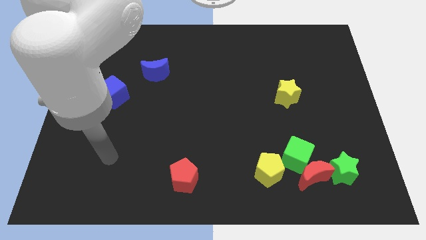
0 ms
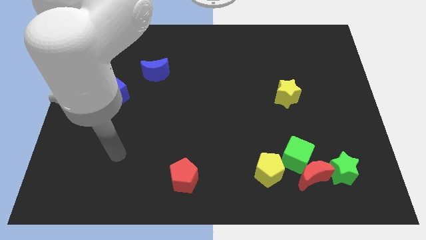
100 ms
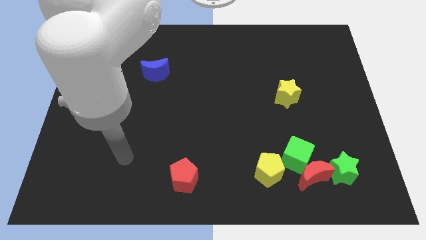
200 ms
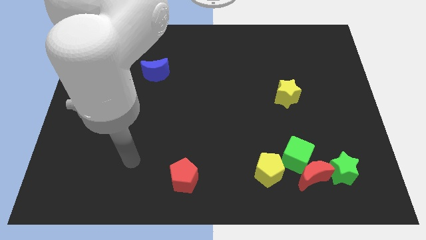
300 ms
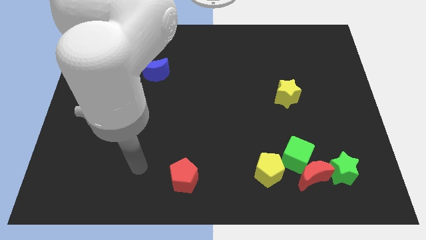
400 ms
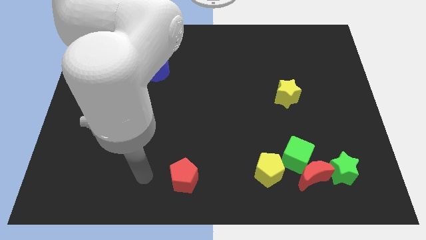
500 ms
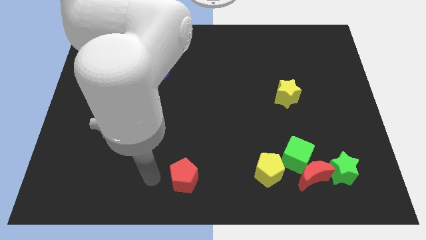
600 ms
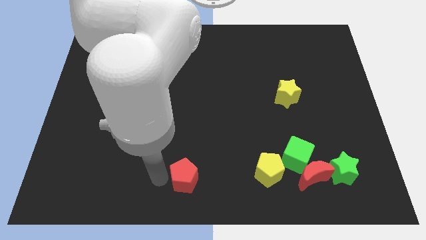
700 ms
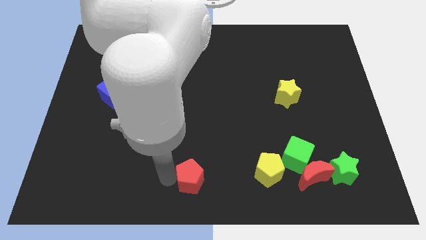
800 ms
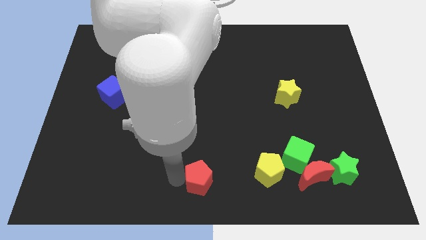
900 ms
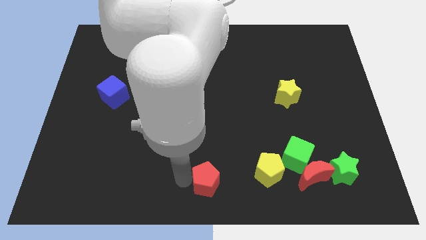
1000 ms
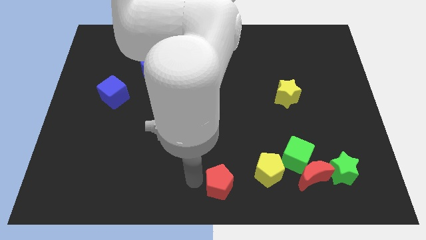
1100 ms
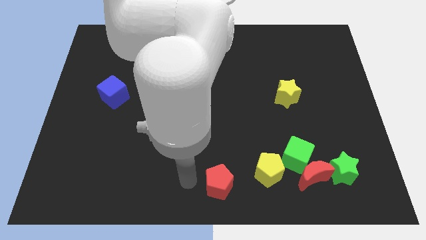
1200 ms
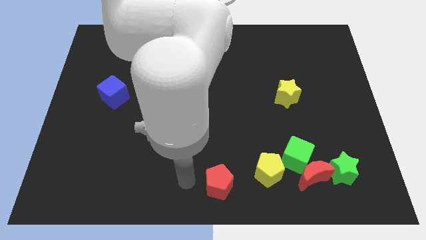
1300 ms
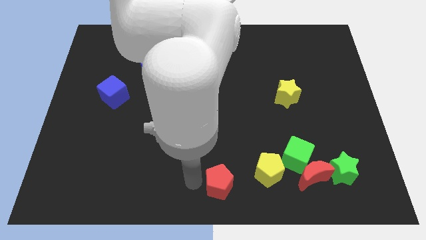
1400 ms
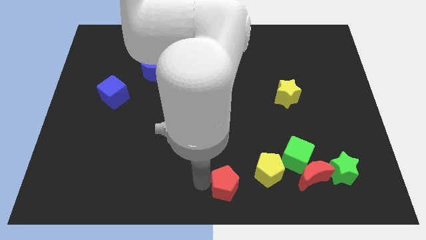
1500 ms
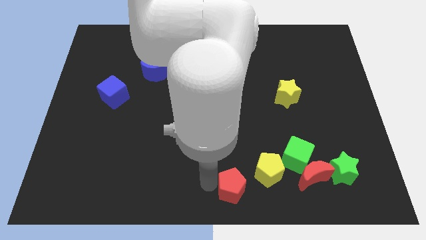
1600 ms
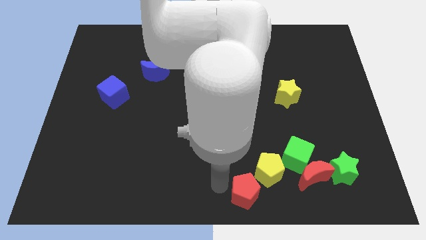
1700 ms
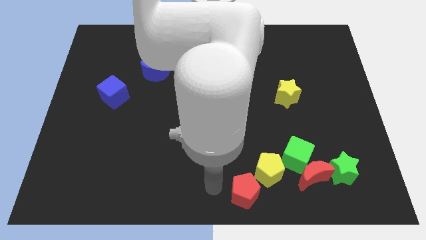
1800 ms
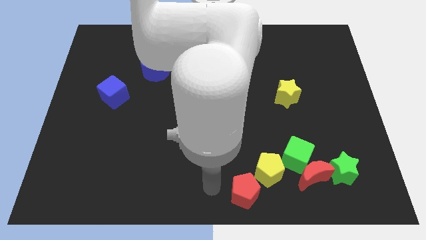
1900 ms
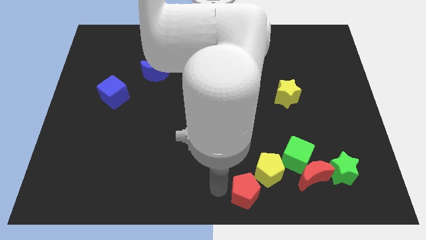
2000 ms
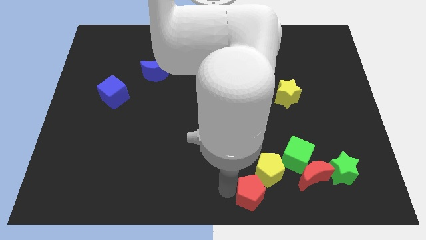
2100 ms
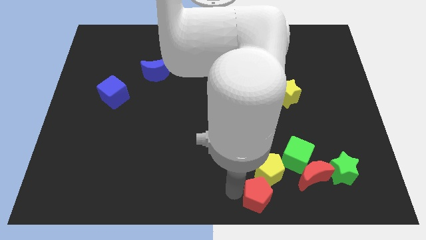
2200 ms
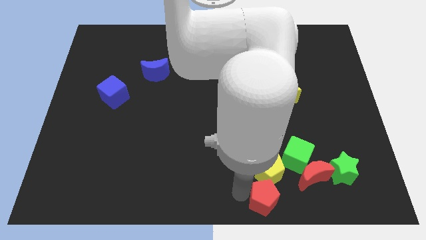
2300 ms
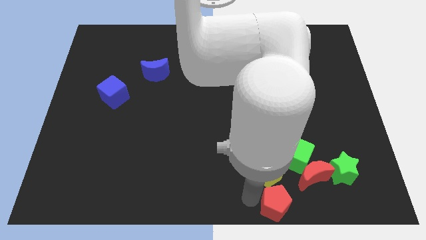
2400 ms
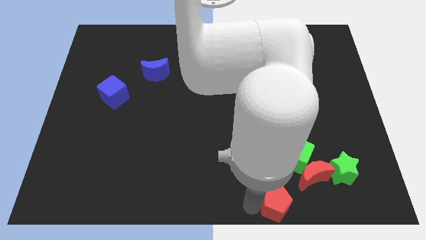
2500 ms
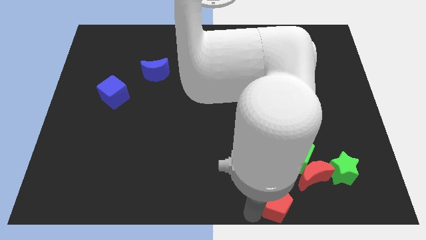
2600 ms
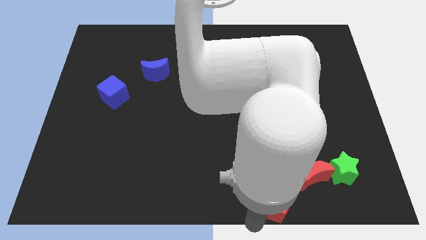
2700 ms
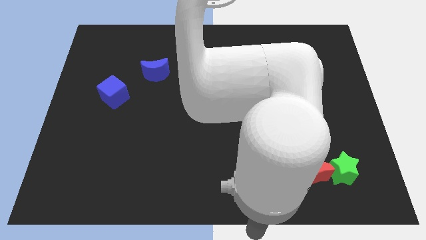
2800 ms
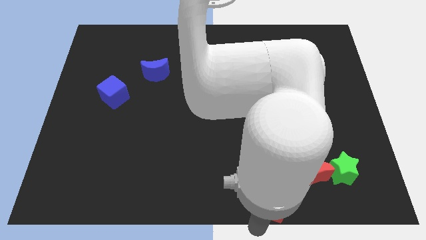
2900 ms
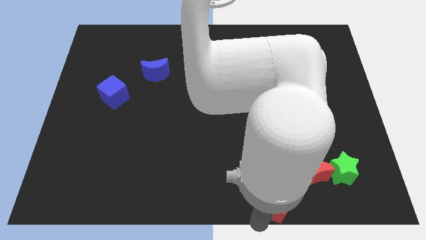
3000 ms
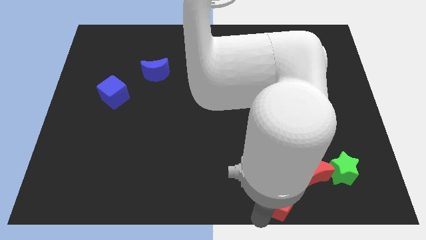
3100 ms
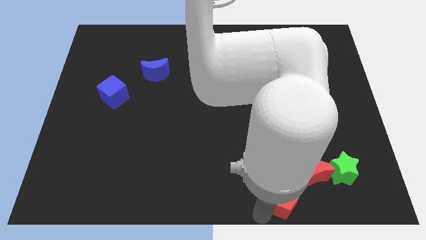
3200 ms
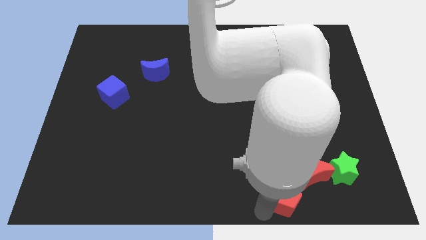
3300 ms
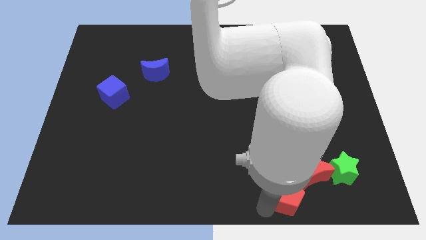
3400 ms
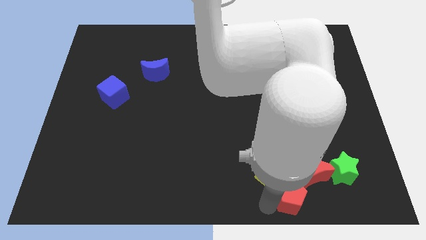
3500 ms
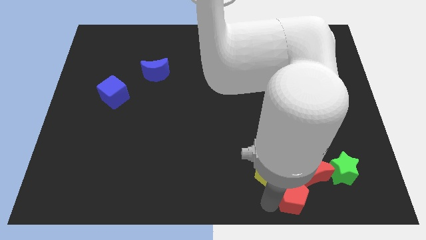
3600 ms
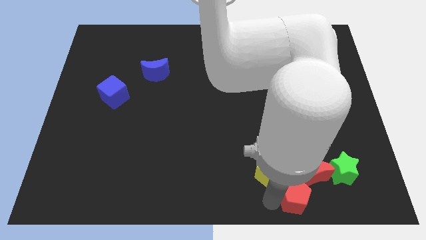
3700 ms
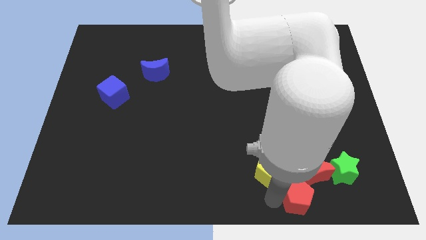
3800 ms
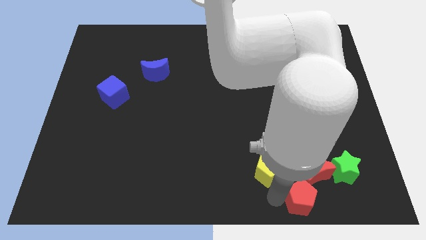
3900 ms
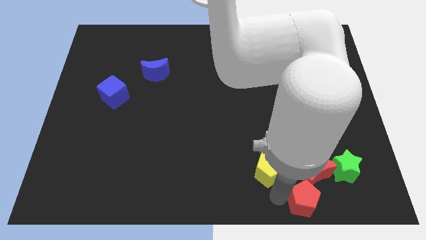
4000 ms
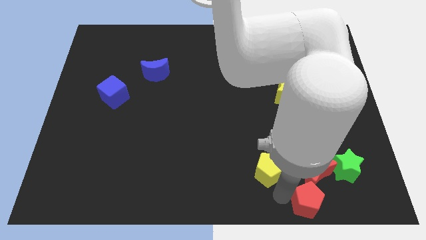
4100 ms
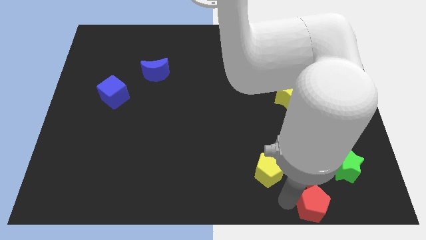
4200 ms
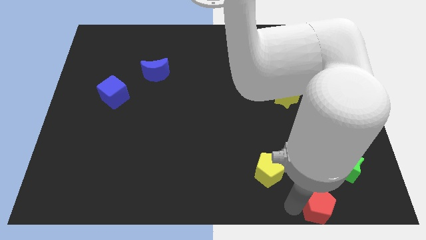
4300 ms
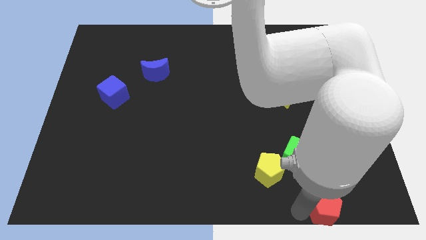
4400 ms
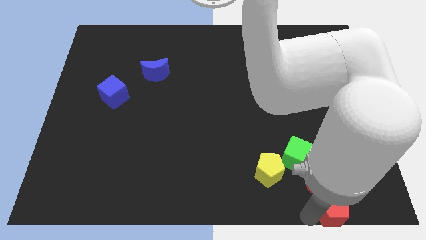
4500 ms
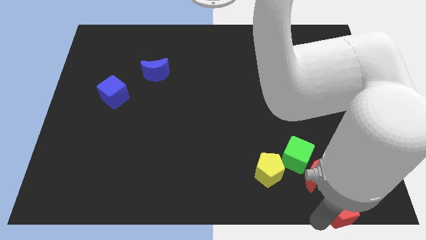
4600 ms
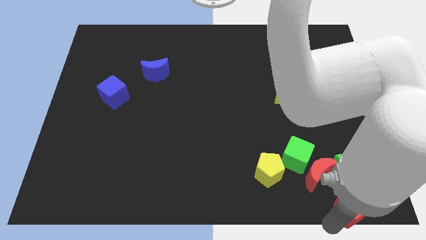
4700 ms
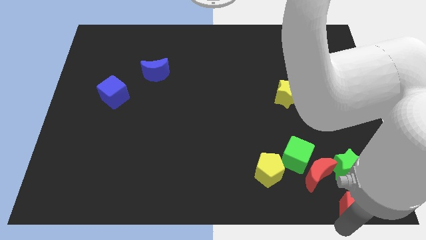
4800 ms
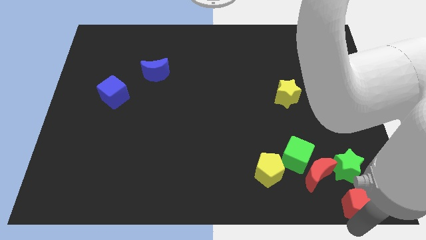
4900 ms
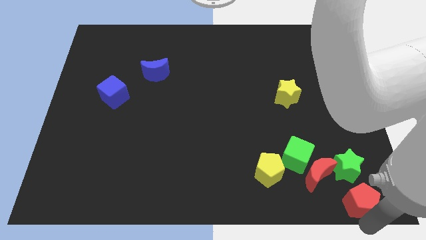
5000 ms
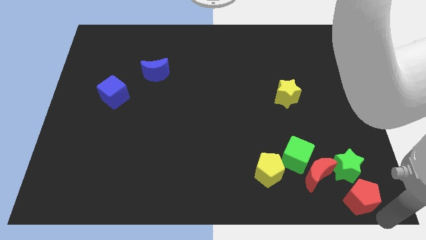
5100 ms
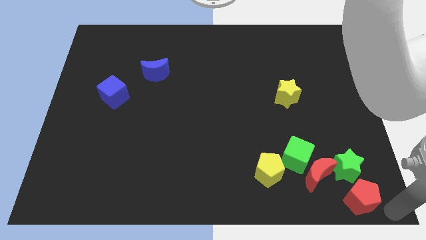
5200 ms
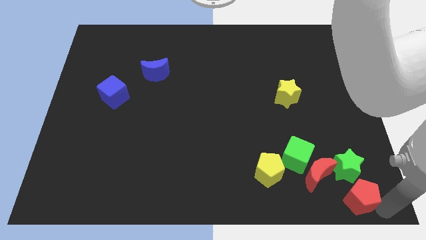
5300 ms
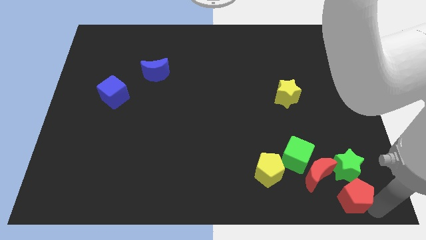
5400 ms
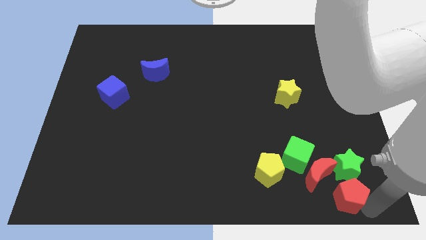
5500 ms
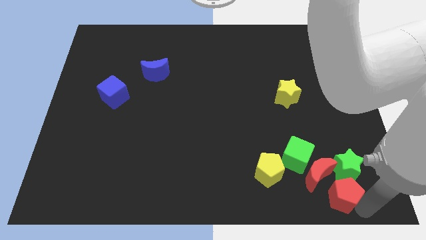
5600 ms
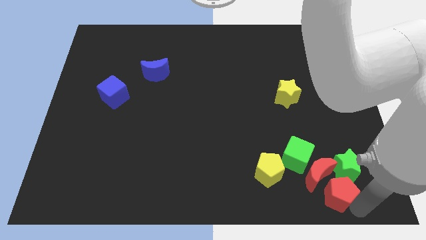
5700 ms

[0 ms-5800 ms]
put the red pentagon next to the red moon

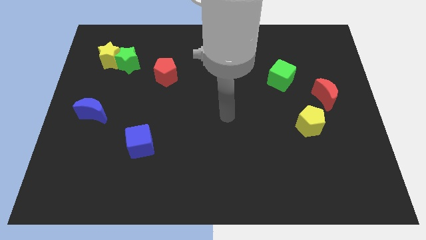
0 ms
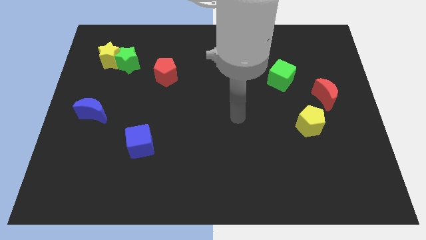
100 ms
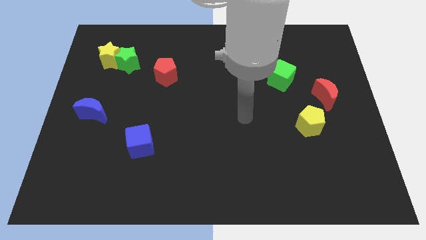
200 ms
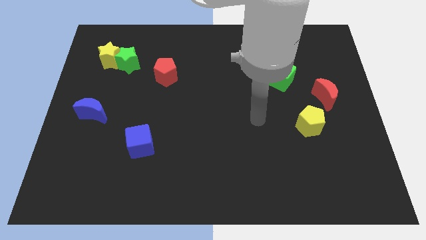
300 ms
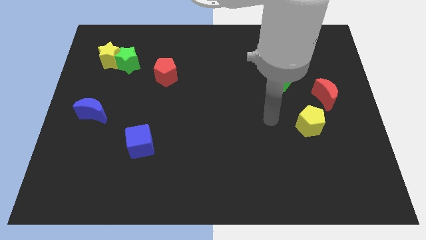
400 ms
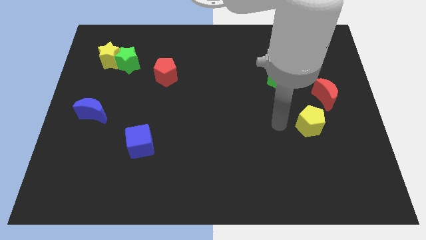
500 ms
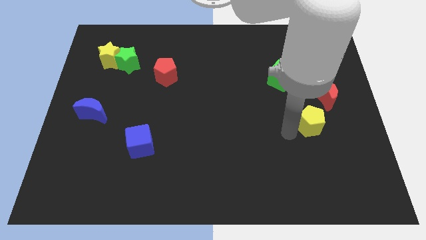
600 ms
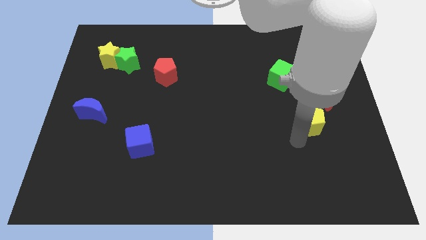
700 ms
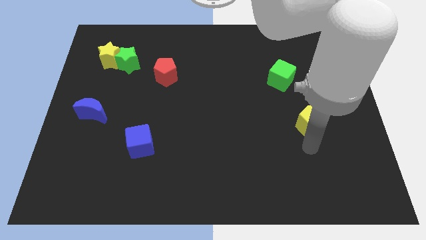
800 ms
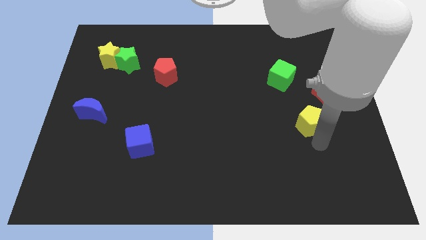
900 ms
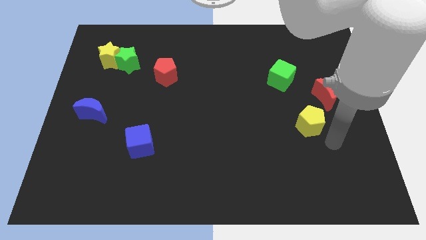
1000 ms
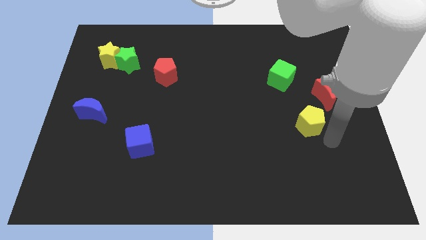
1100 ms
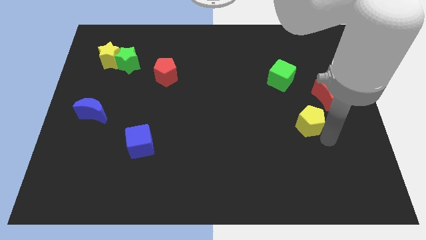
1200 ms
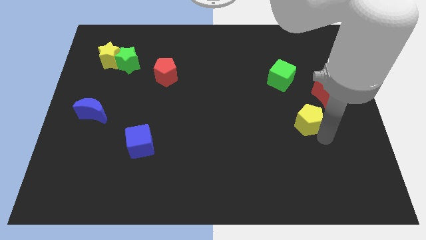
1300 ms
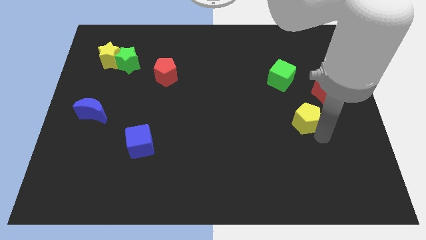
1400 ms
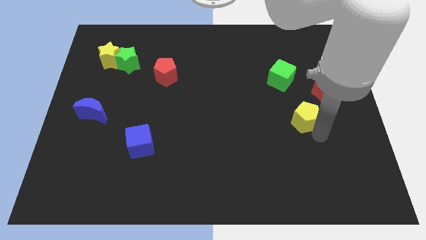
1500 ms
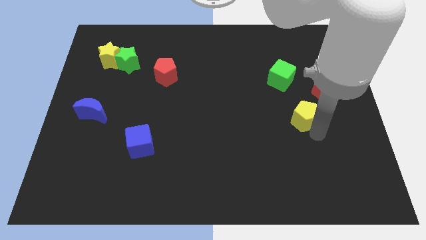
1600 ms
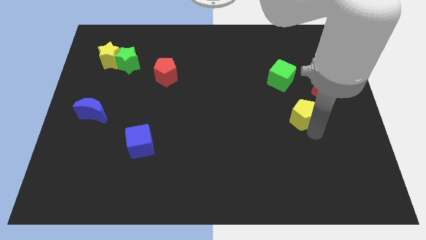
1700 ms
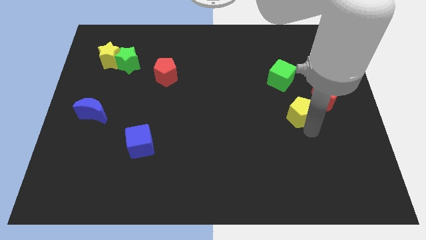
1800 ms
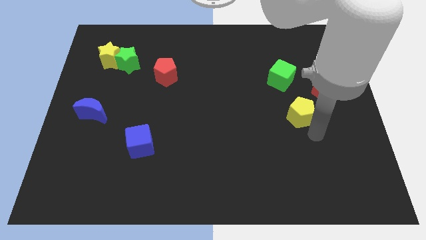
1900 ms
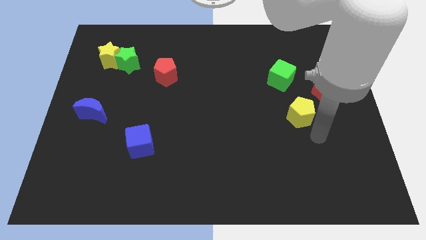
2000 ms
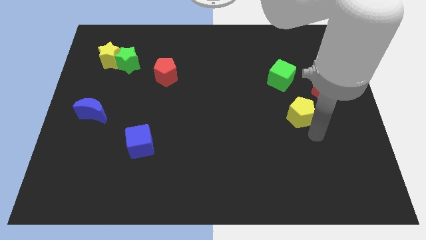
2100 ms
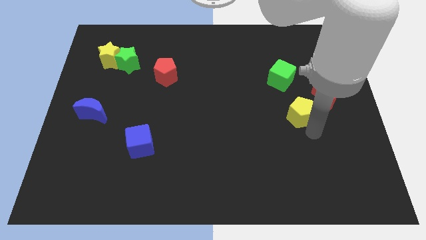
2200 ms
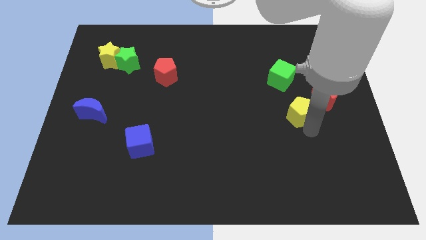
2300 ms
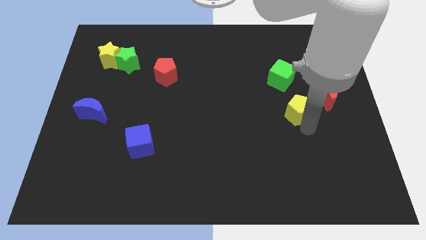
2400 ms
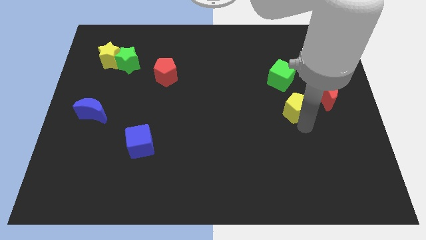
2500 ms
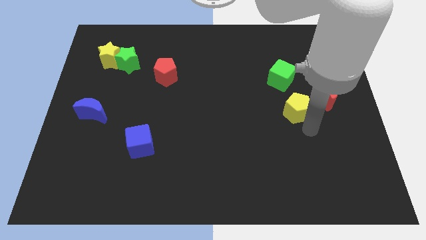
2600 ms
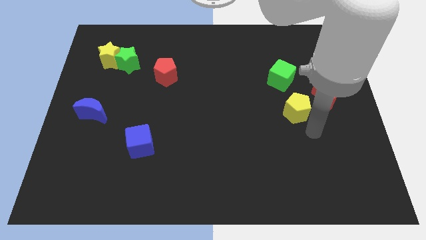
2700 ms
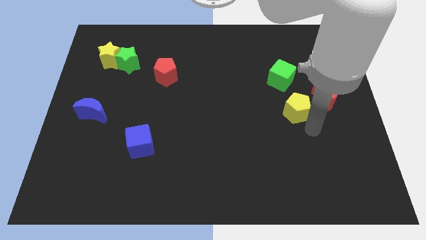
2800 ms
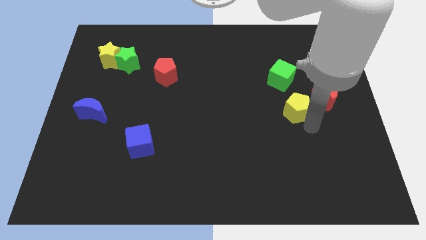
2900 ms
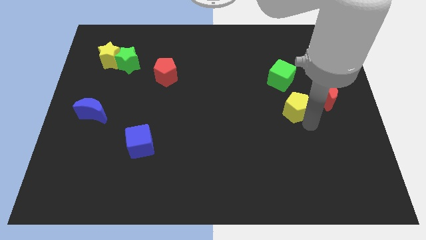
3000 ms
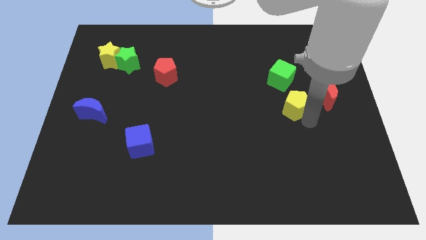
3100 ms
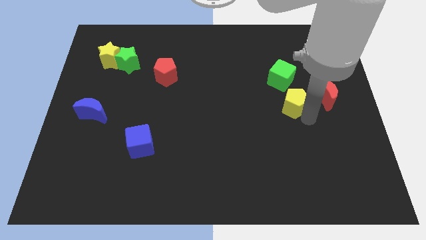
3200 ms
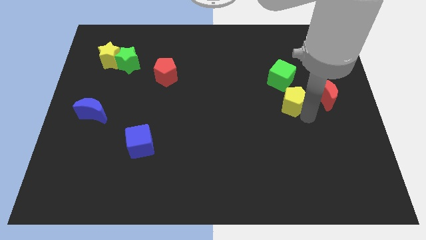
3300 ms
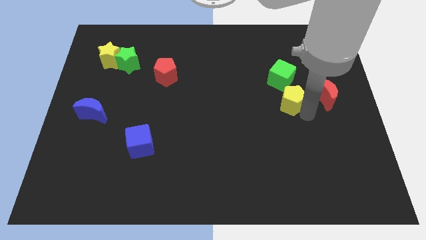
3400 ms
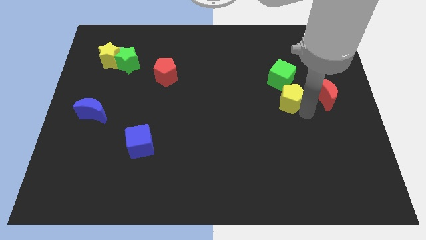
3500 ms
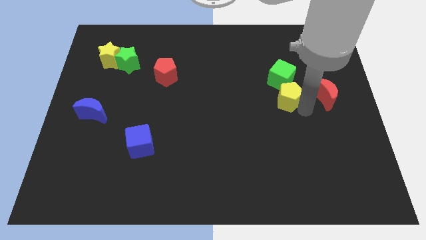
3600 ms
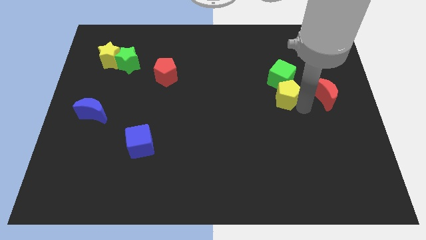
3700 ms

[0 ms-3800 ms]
push the yellow pentagon to the green cube
